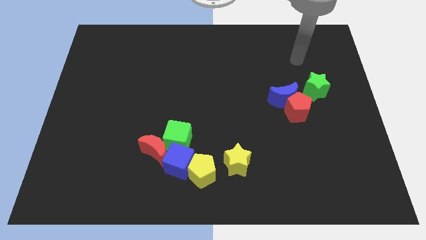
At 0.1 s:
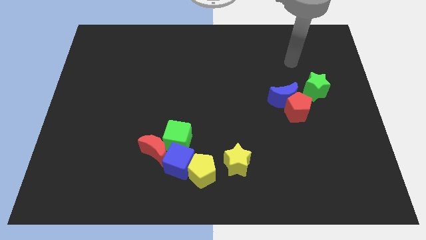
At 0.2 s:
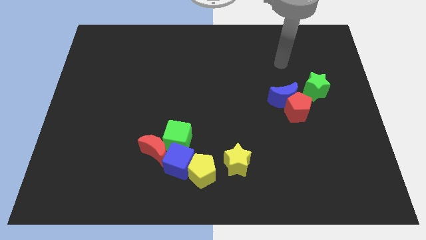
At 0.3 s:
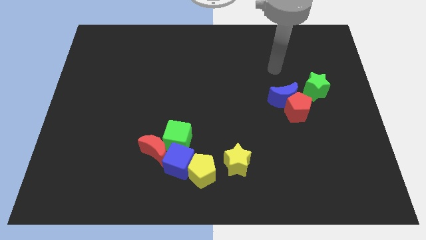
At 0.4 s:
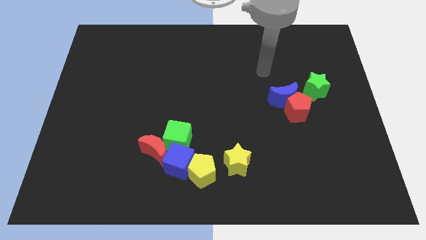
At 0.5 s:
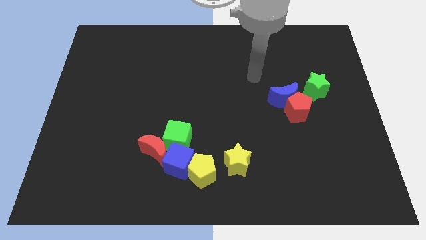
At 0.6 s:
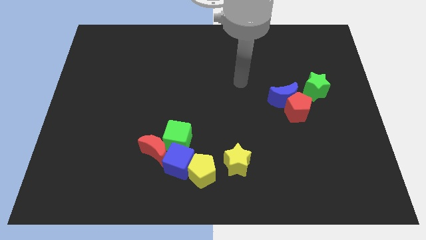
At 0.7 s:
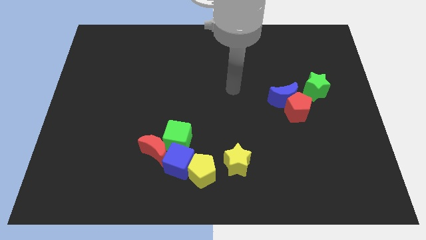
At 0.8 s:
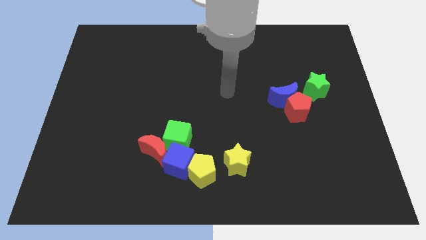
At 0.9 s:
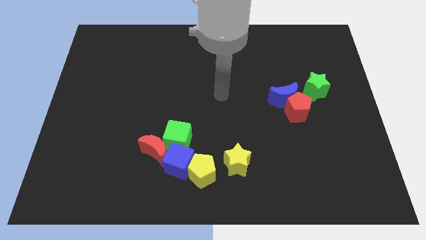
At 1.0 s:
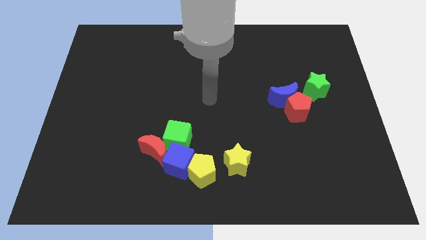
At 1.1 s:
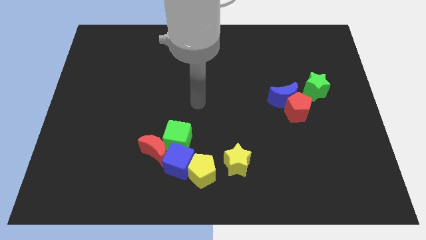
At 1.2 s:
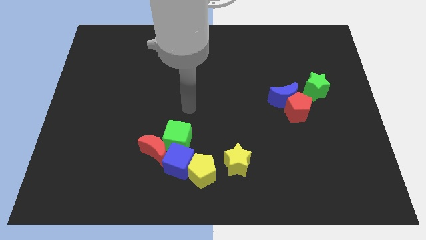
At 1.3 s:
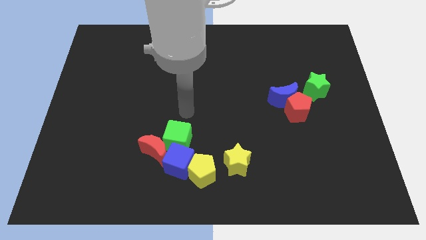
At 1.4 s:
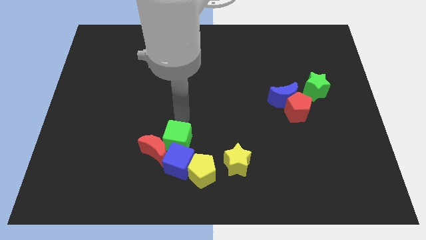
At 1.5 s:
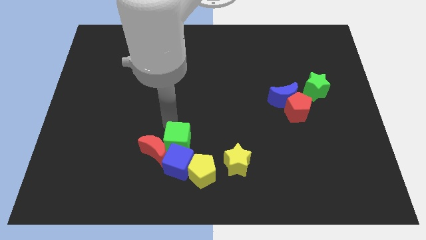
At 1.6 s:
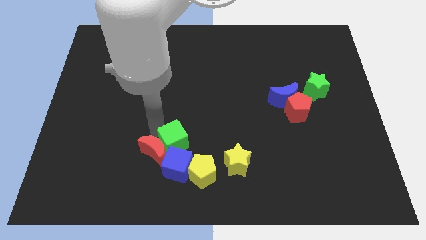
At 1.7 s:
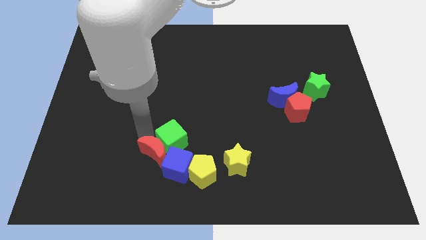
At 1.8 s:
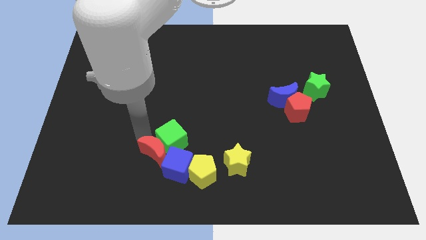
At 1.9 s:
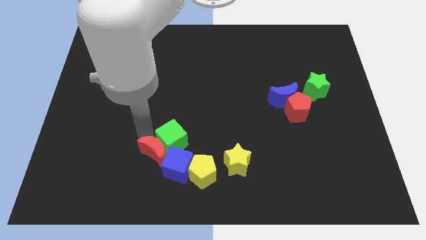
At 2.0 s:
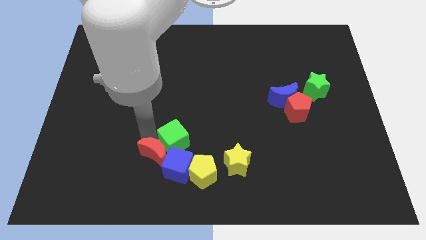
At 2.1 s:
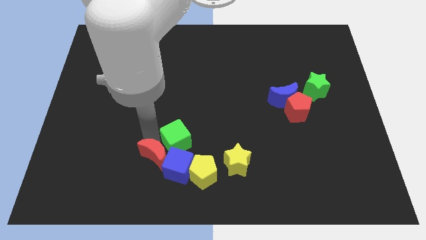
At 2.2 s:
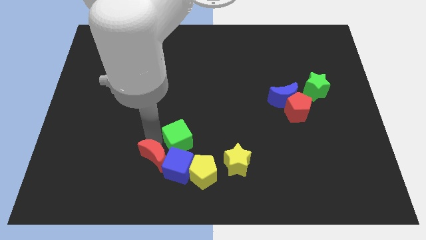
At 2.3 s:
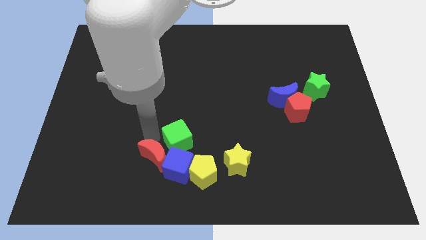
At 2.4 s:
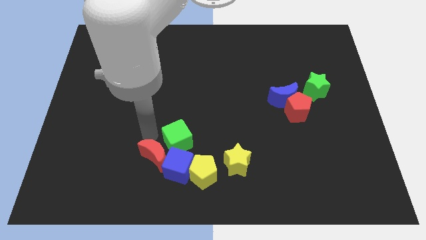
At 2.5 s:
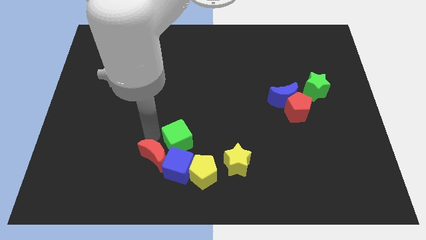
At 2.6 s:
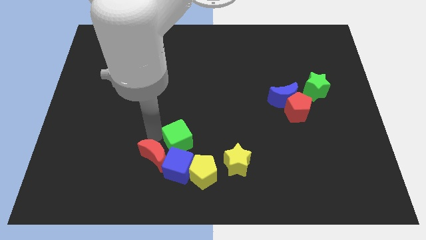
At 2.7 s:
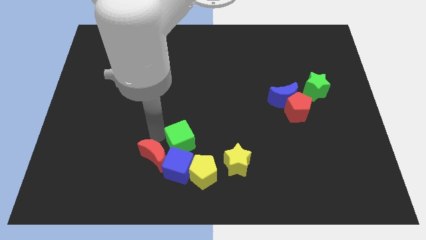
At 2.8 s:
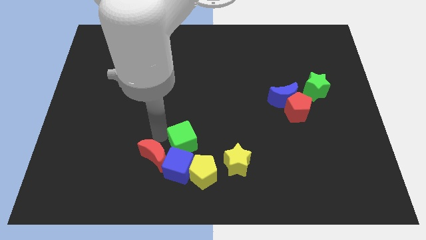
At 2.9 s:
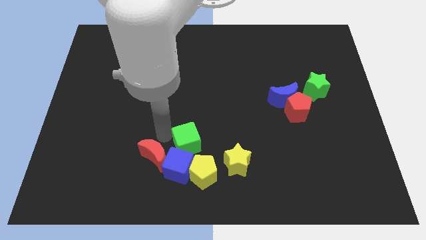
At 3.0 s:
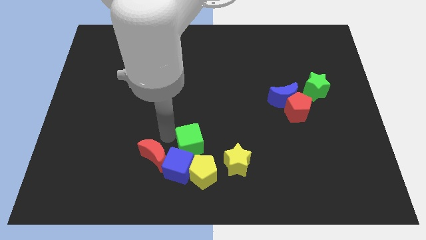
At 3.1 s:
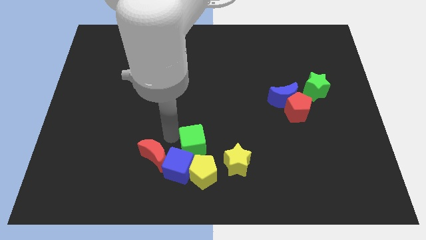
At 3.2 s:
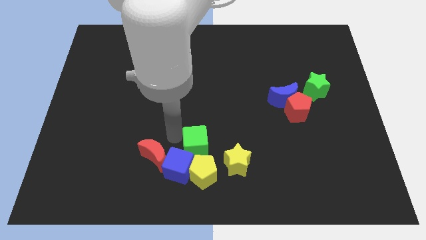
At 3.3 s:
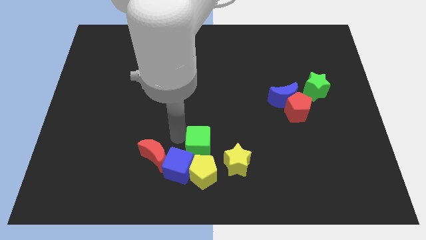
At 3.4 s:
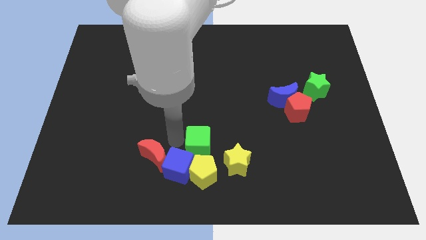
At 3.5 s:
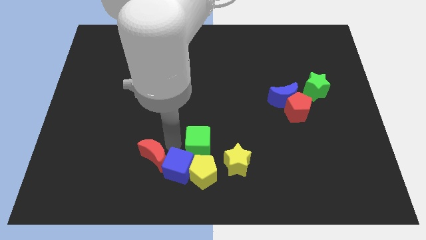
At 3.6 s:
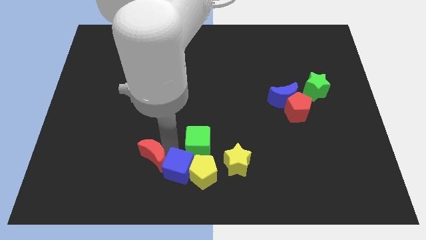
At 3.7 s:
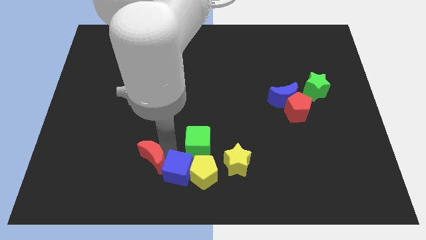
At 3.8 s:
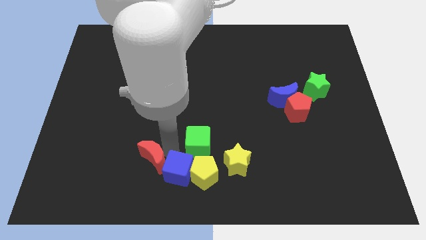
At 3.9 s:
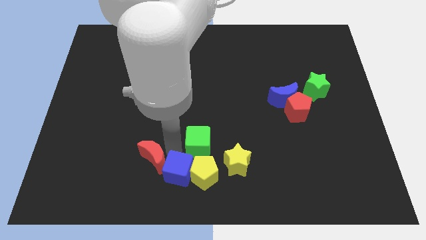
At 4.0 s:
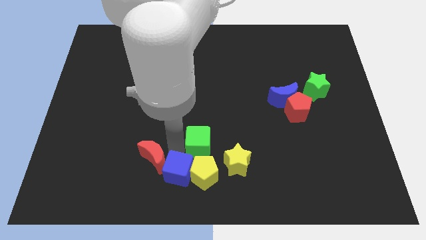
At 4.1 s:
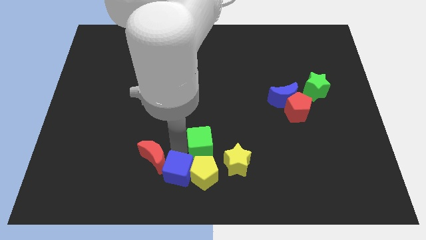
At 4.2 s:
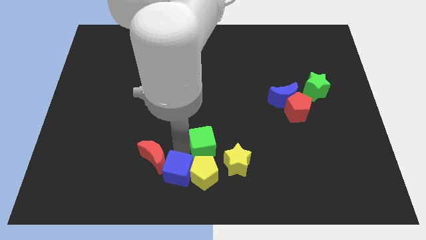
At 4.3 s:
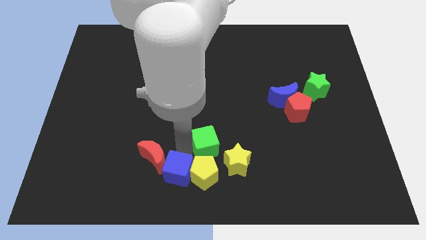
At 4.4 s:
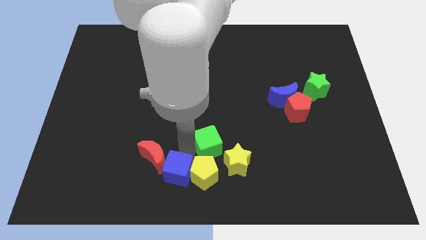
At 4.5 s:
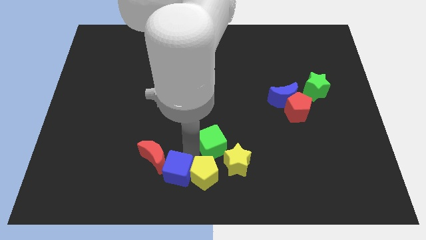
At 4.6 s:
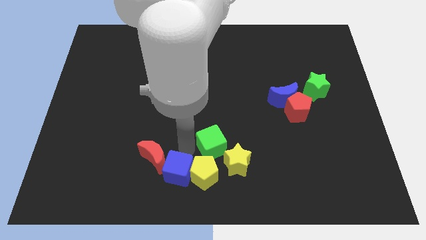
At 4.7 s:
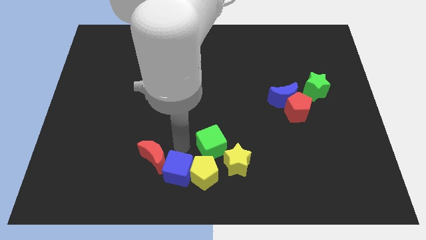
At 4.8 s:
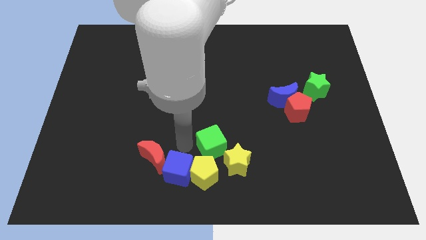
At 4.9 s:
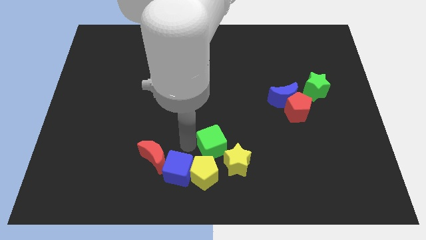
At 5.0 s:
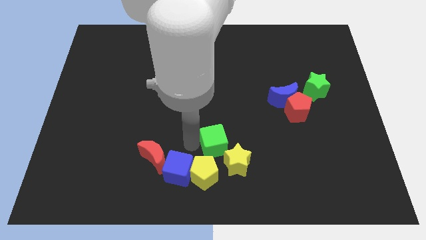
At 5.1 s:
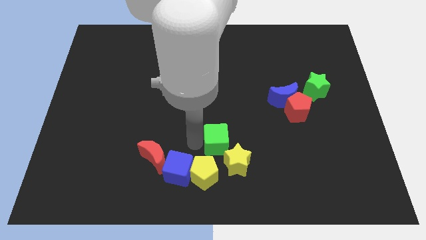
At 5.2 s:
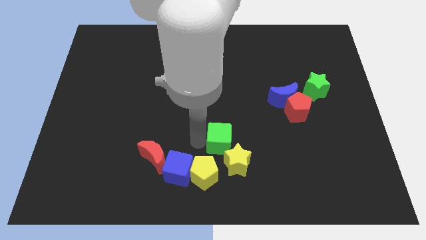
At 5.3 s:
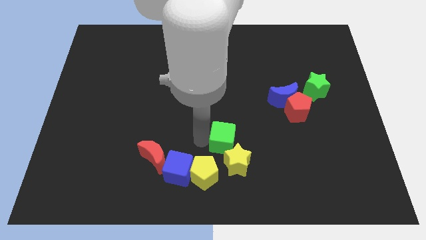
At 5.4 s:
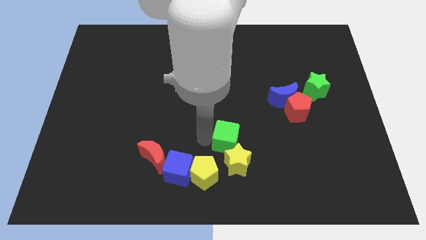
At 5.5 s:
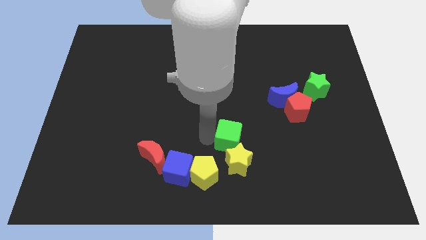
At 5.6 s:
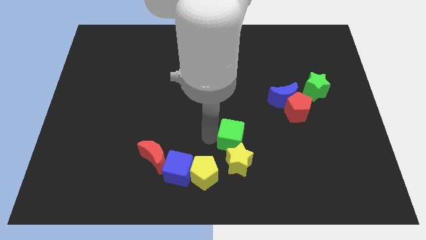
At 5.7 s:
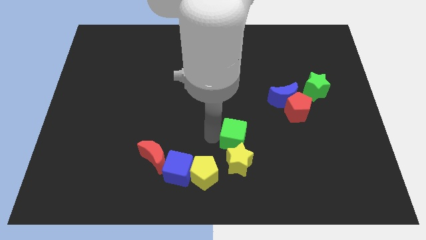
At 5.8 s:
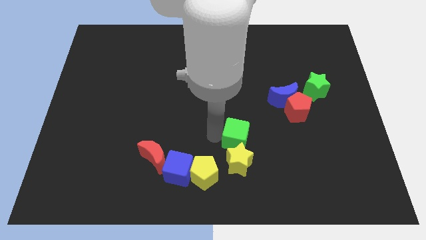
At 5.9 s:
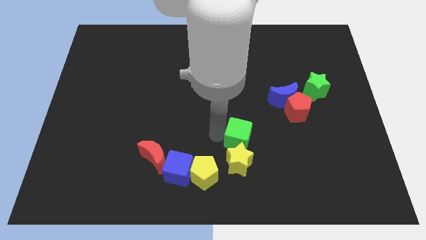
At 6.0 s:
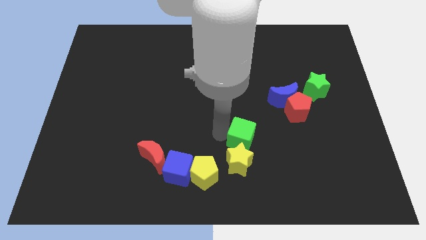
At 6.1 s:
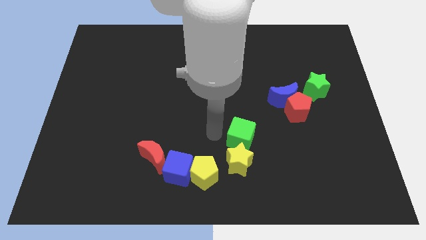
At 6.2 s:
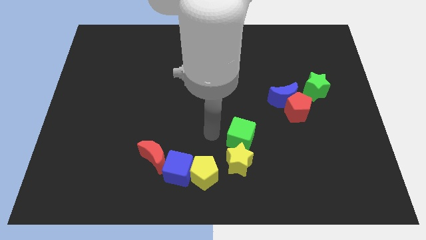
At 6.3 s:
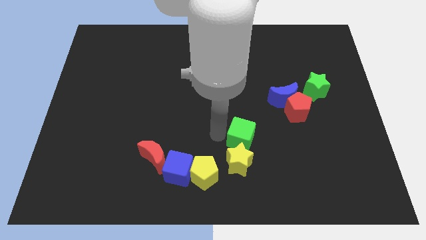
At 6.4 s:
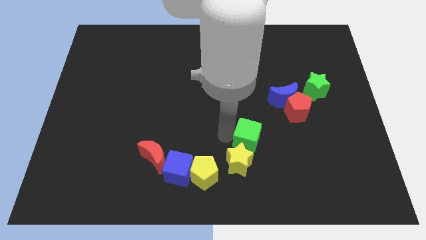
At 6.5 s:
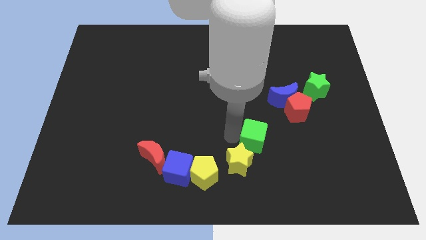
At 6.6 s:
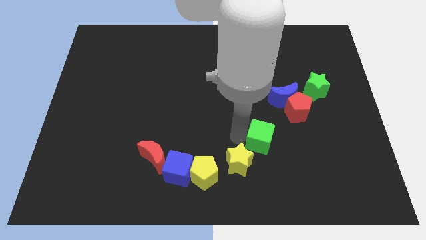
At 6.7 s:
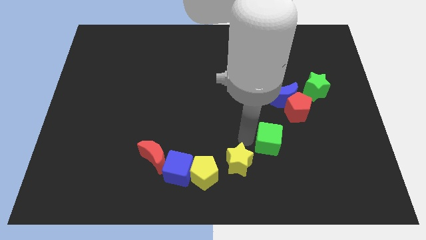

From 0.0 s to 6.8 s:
put the green cube to the bottom side of the blue moon

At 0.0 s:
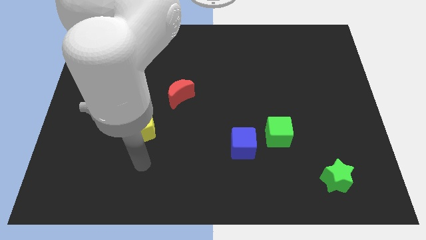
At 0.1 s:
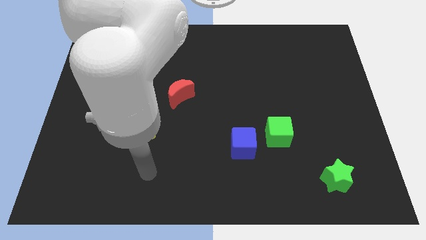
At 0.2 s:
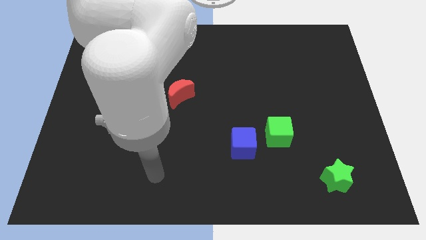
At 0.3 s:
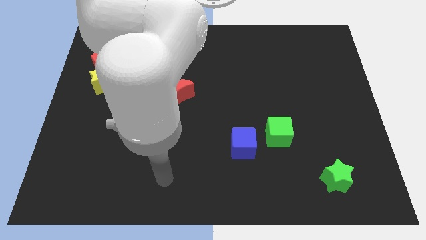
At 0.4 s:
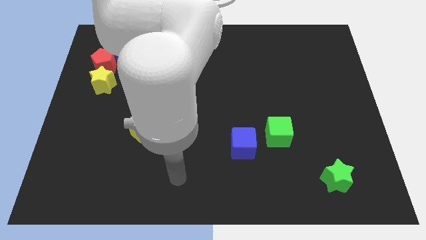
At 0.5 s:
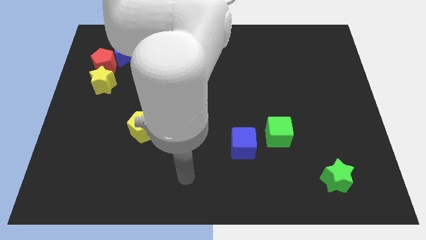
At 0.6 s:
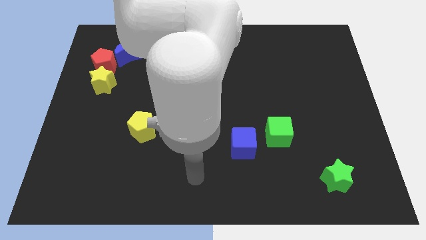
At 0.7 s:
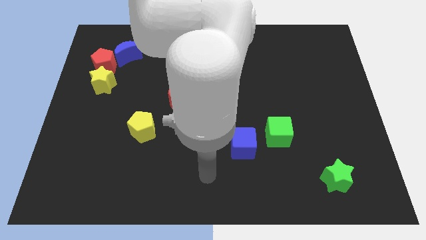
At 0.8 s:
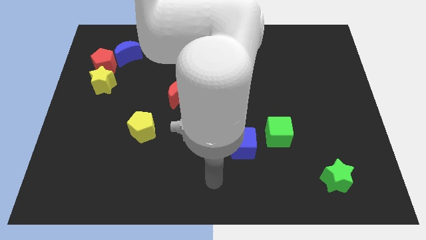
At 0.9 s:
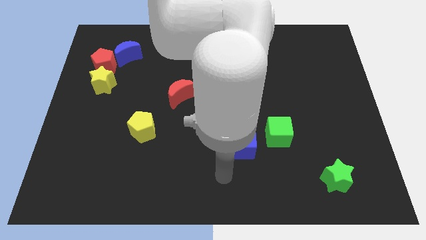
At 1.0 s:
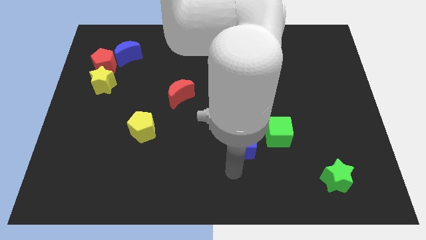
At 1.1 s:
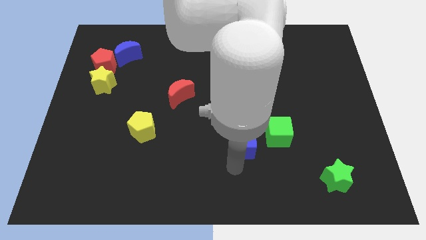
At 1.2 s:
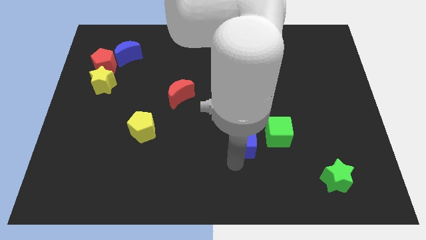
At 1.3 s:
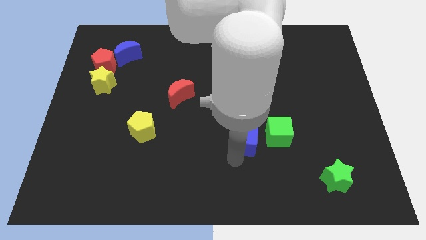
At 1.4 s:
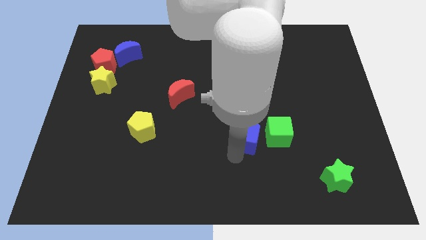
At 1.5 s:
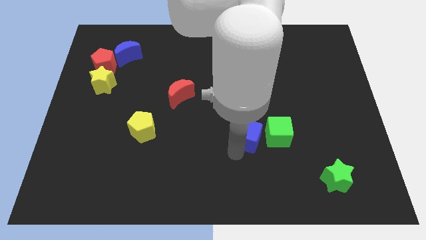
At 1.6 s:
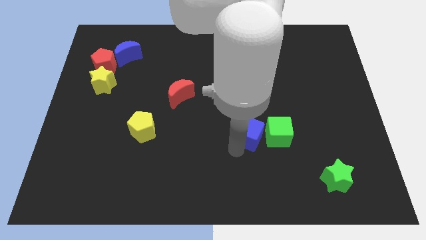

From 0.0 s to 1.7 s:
move the blue cube diagonally up and to the left of the green cube
